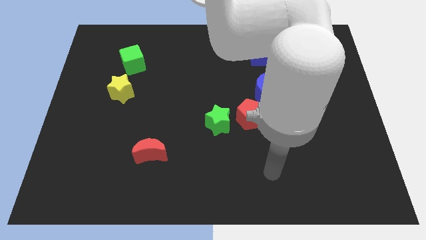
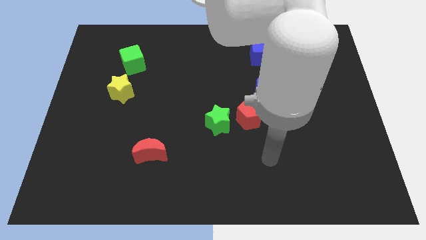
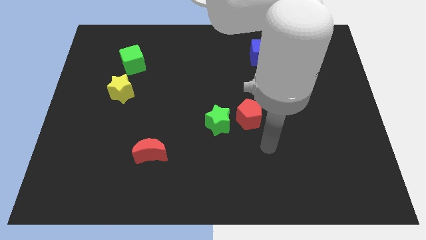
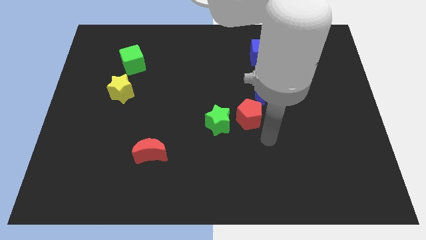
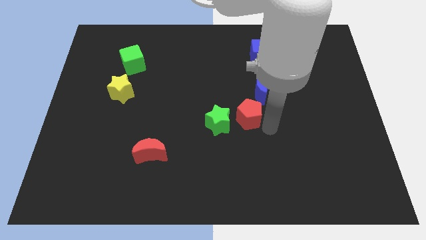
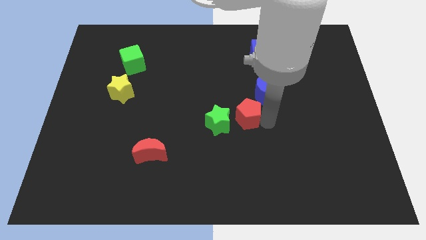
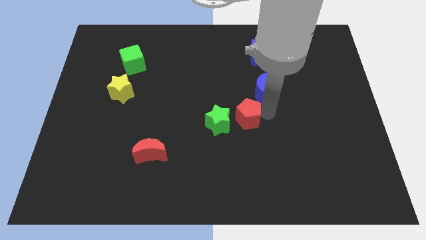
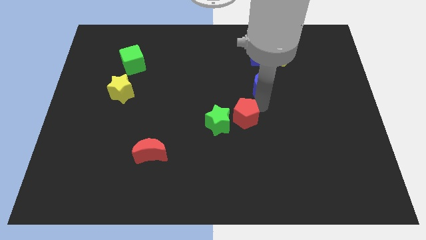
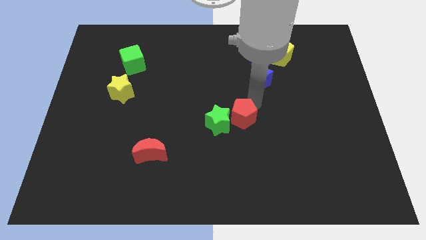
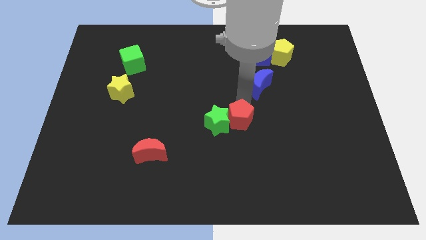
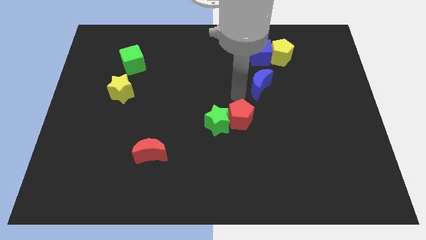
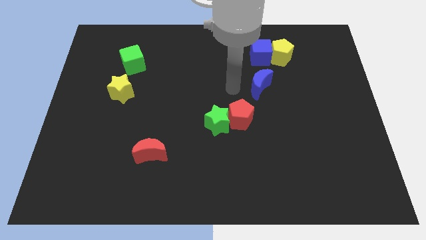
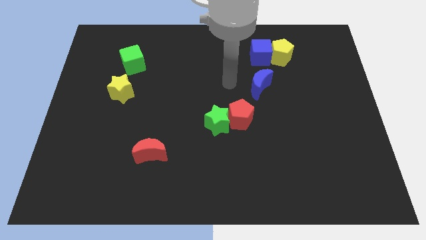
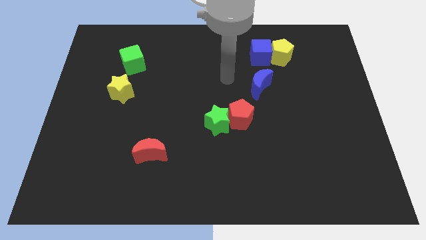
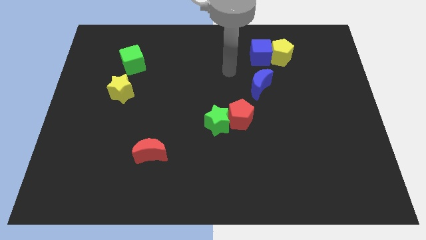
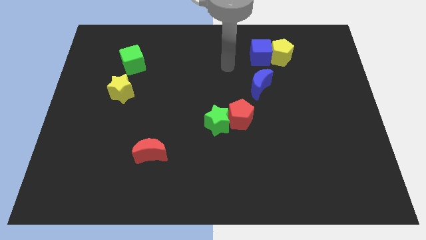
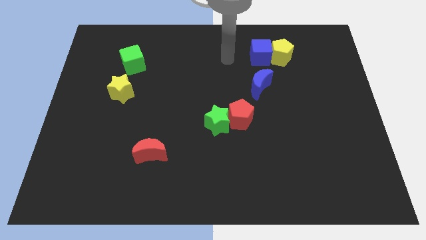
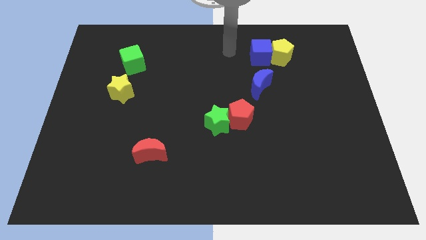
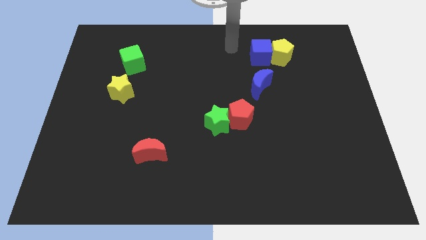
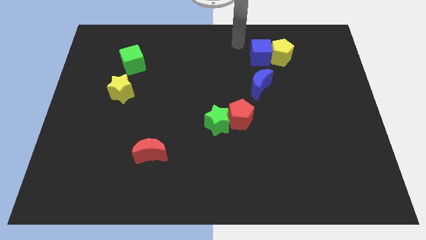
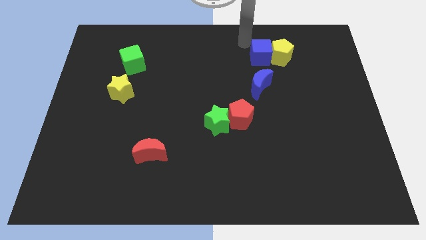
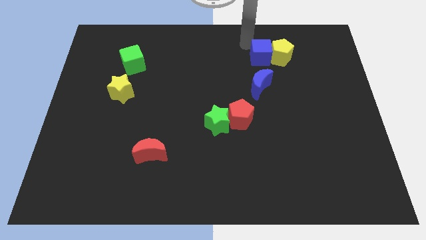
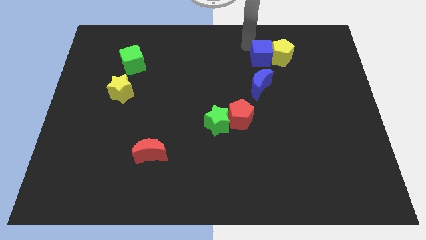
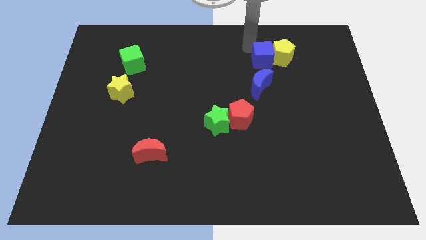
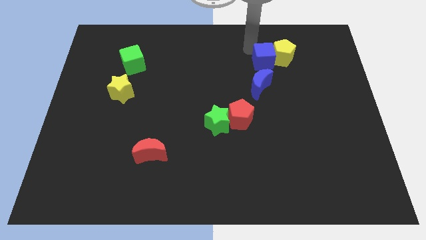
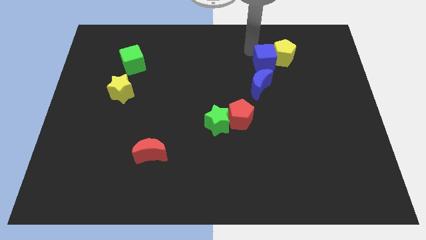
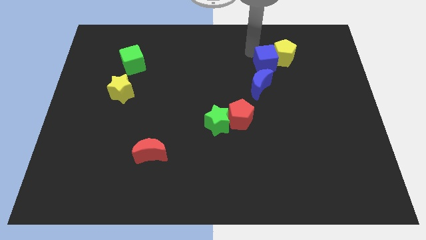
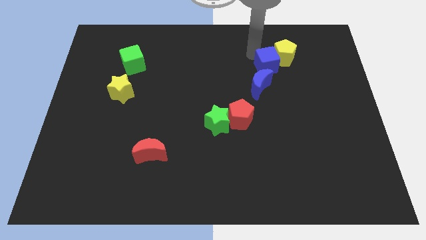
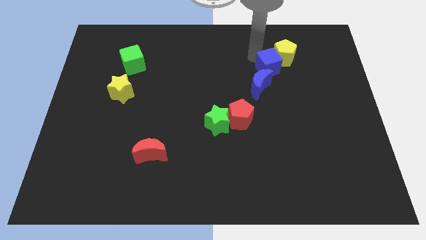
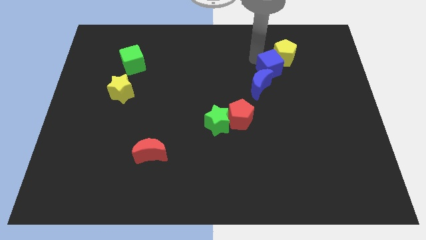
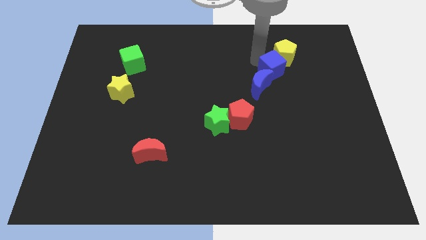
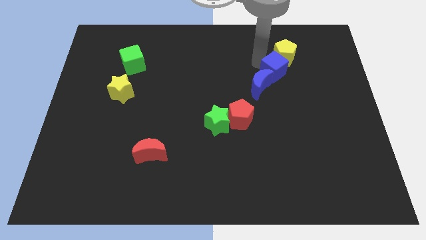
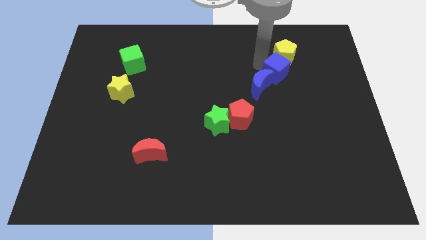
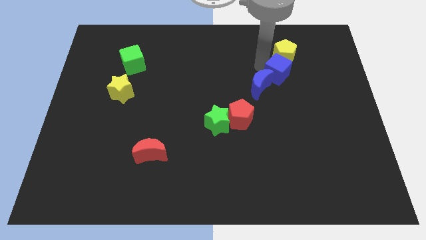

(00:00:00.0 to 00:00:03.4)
slightly slide the blue cube diagonally down and right

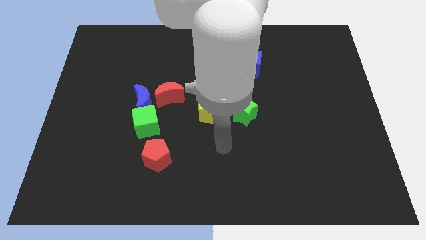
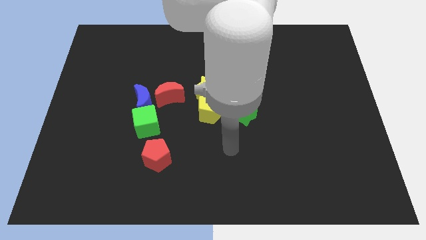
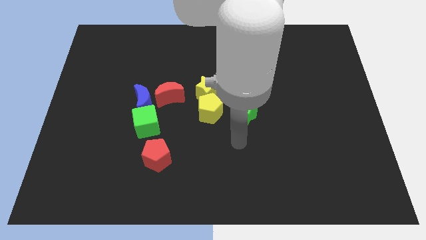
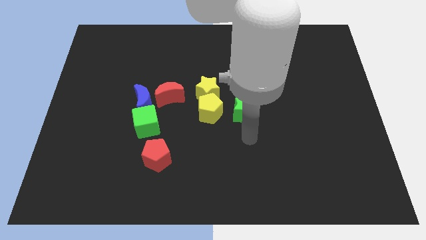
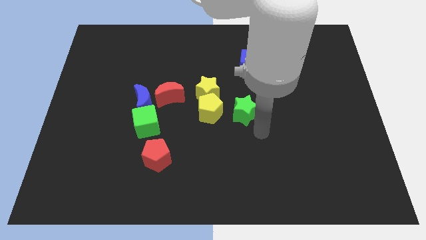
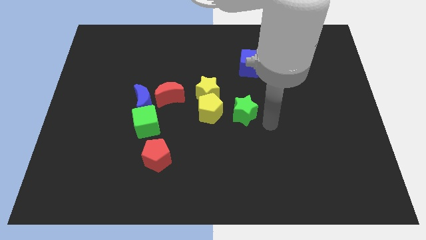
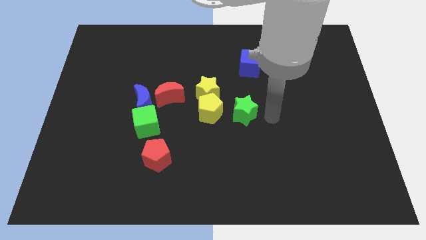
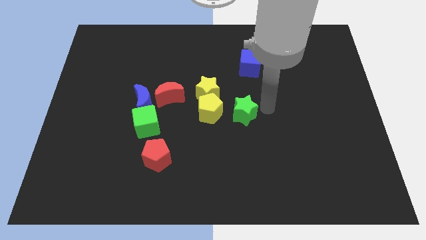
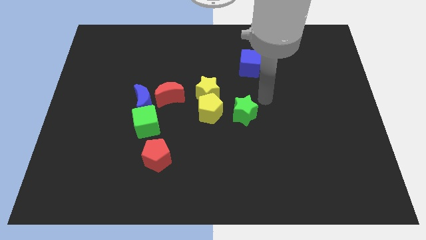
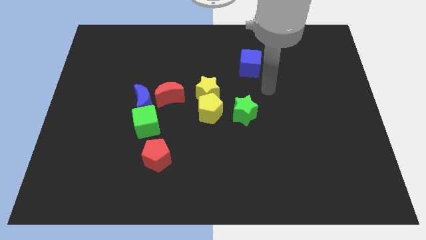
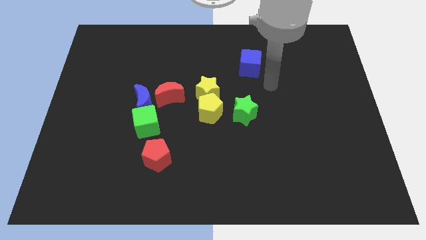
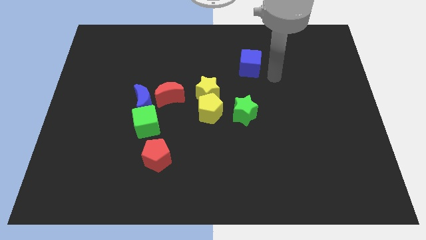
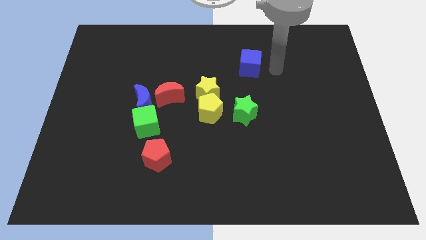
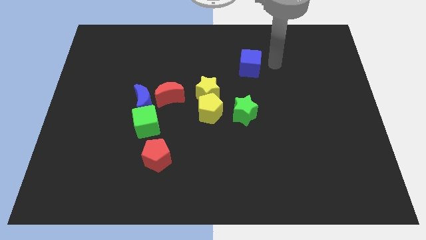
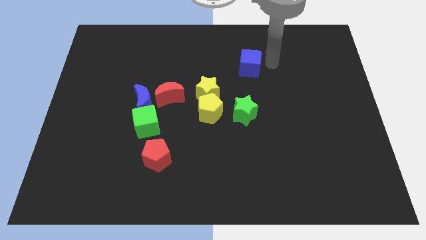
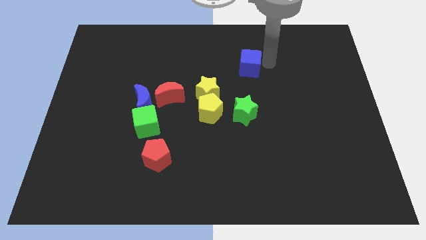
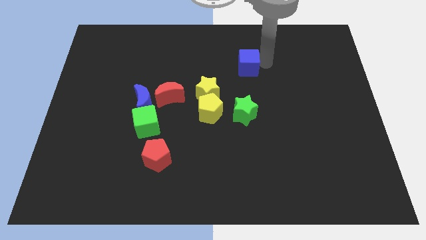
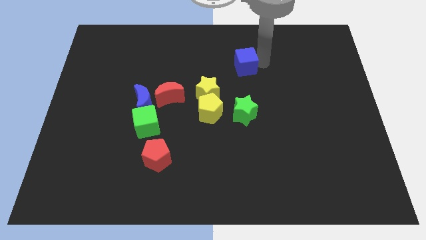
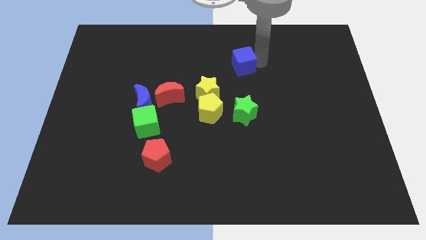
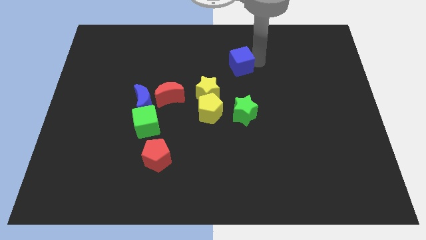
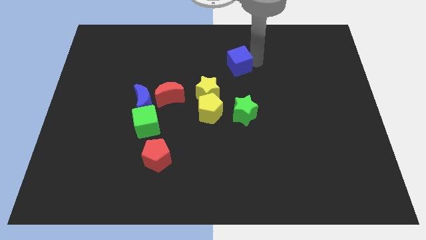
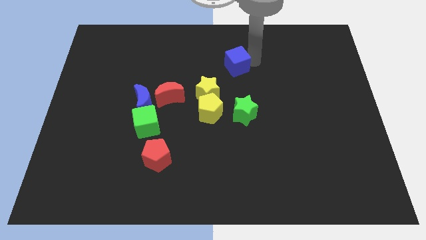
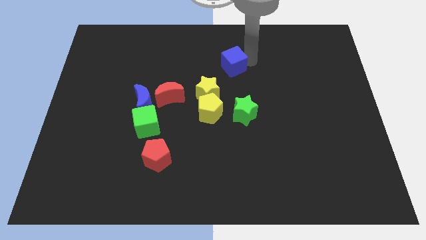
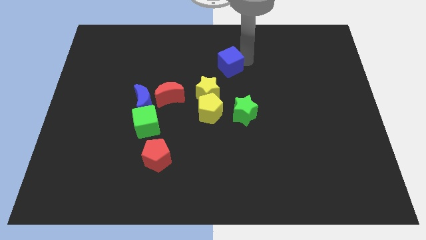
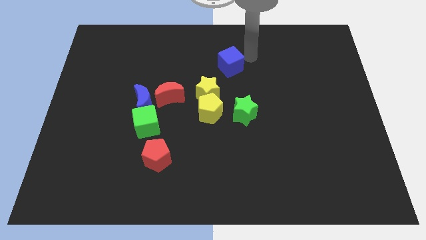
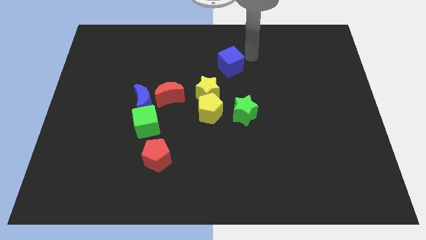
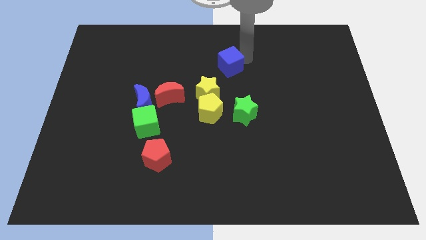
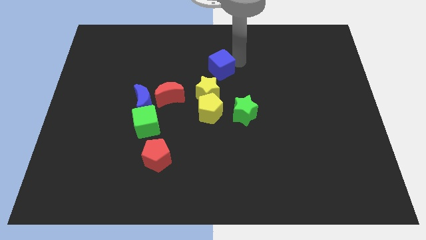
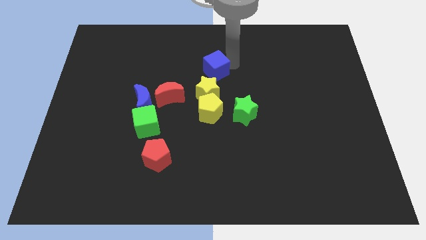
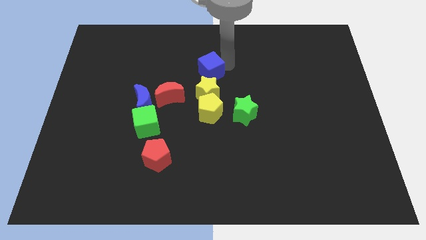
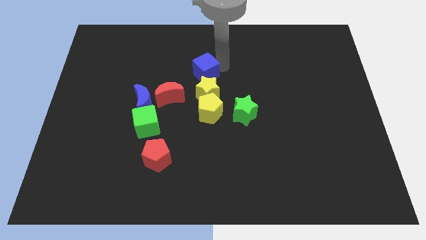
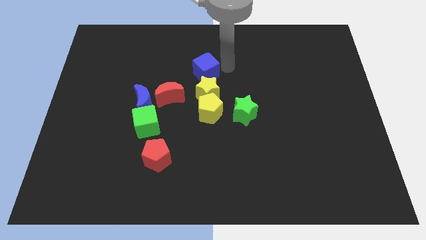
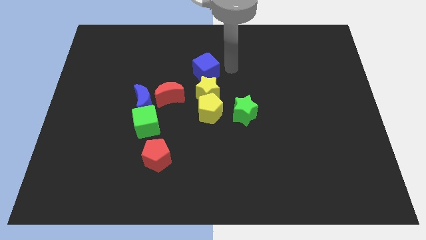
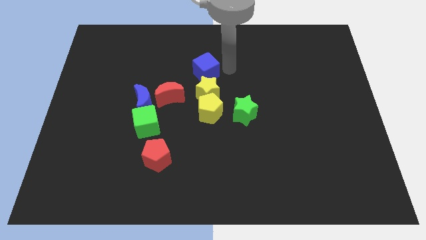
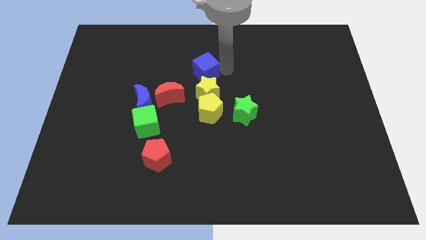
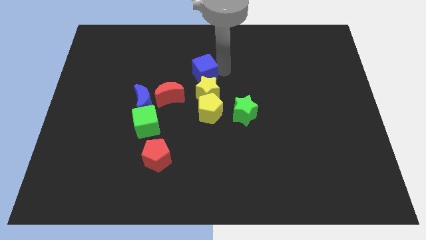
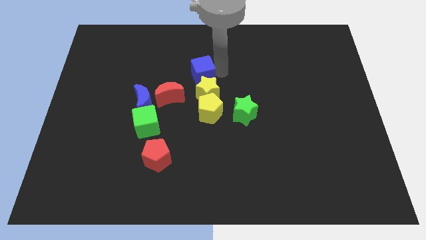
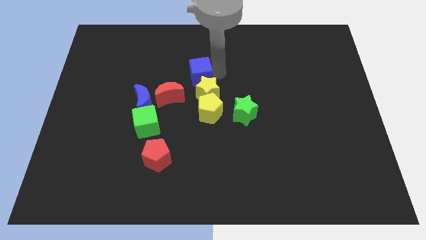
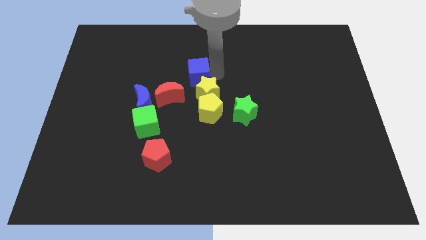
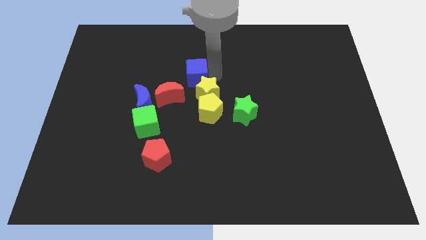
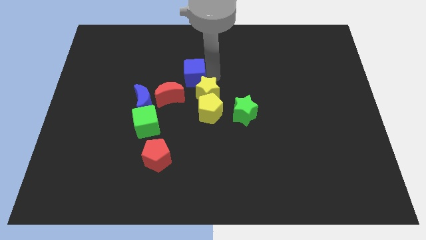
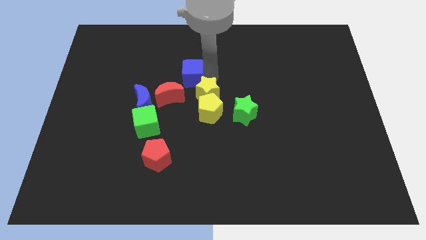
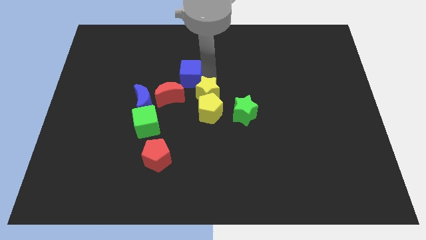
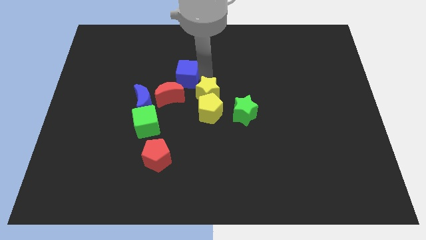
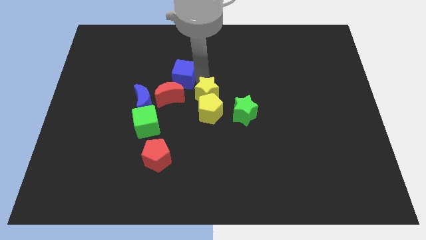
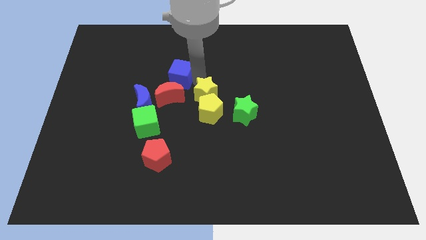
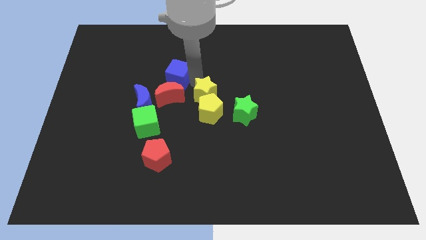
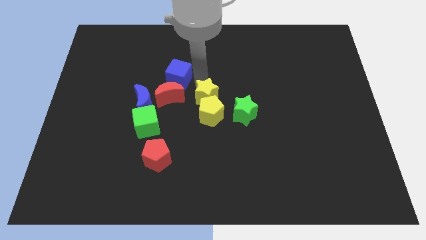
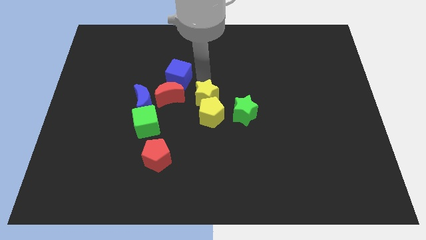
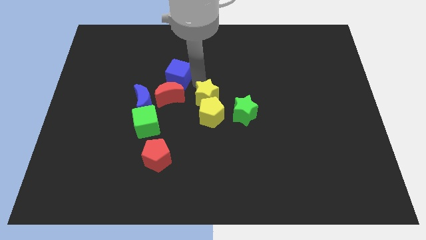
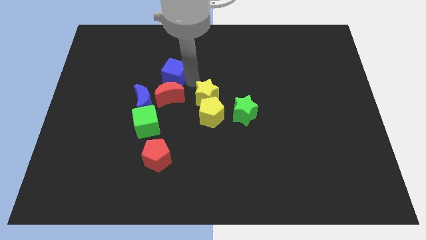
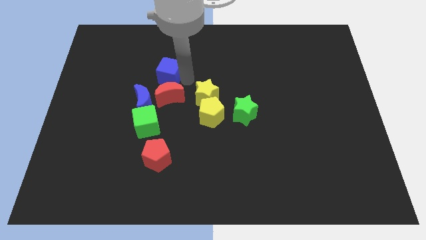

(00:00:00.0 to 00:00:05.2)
slide the blue cube to the left
